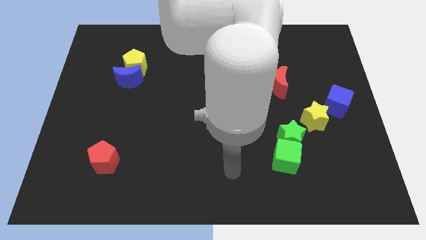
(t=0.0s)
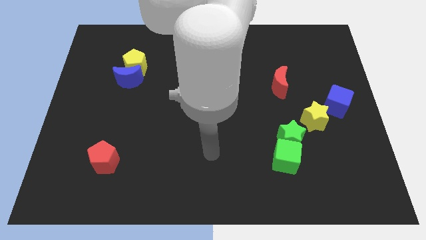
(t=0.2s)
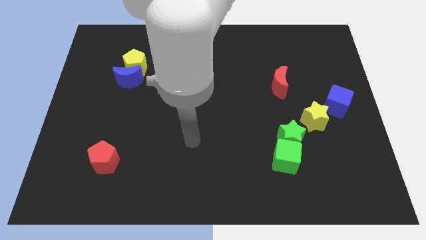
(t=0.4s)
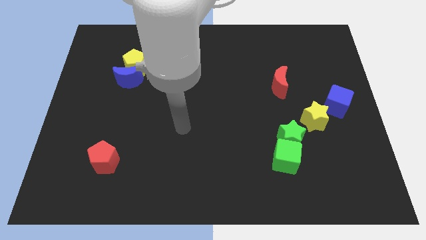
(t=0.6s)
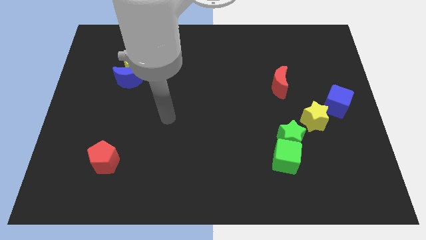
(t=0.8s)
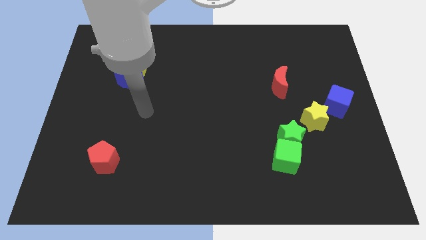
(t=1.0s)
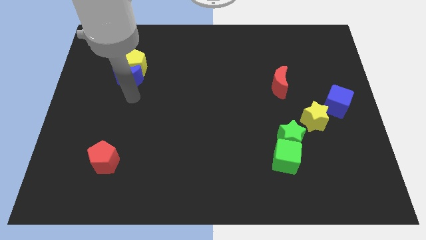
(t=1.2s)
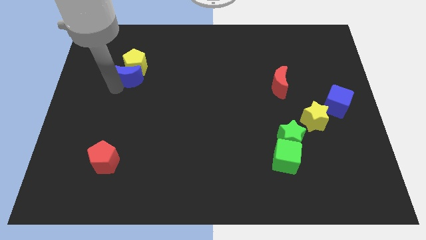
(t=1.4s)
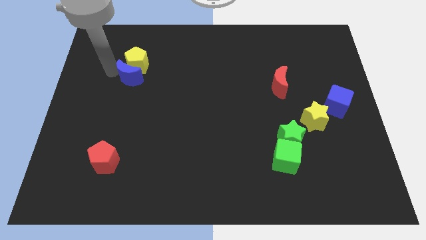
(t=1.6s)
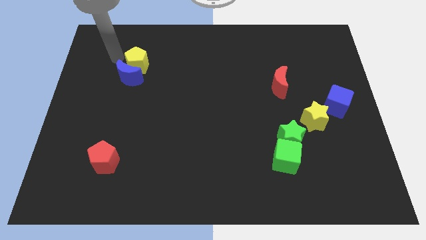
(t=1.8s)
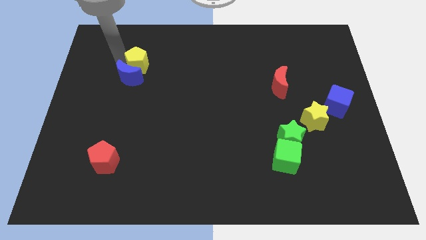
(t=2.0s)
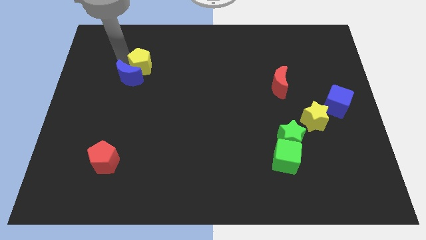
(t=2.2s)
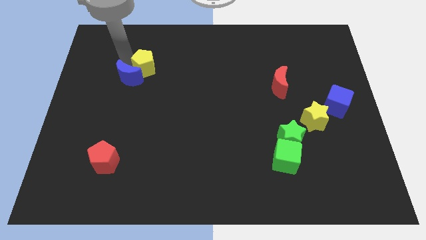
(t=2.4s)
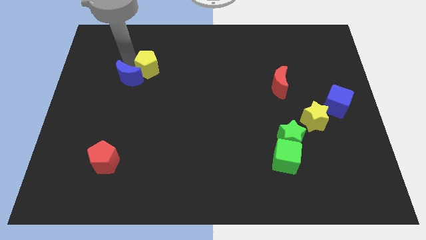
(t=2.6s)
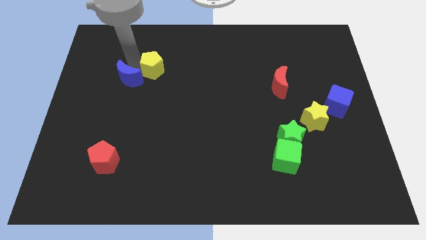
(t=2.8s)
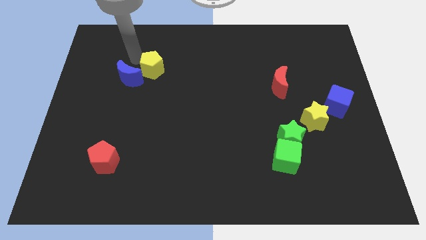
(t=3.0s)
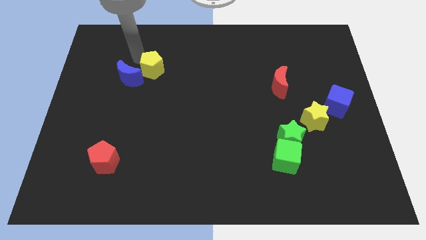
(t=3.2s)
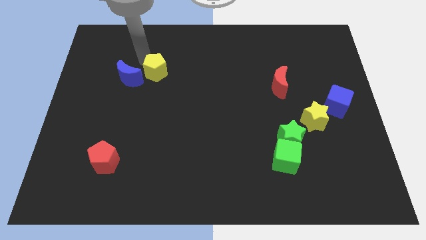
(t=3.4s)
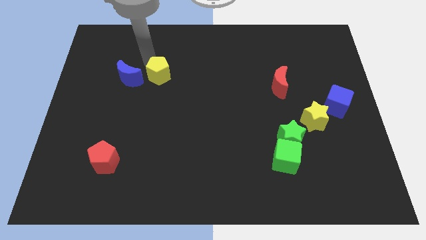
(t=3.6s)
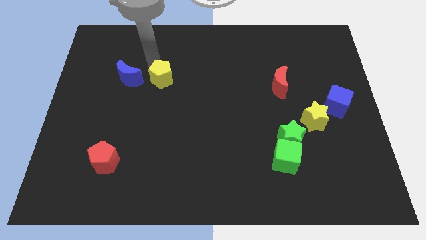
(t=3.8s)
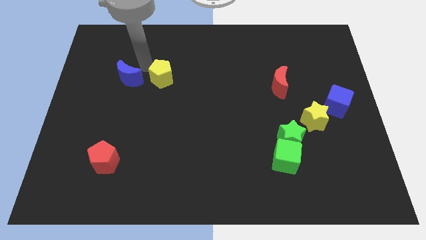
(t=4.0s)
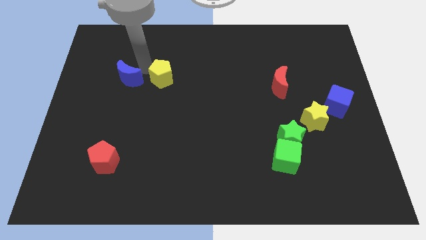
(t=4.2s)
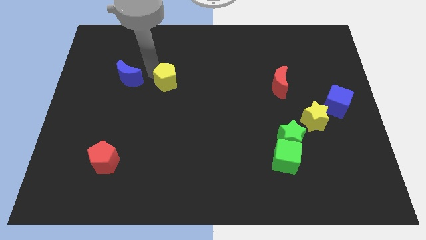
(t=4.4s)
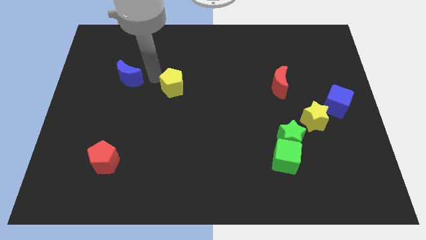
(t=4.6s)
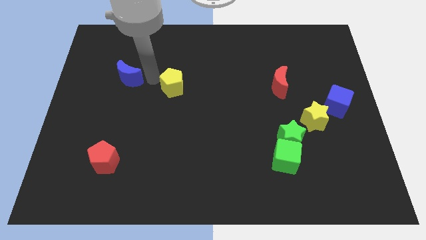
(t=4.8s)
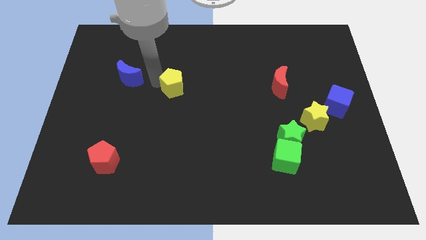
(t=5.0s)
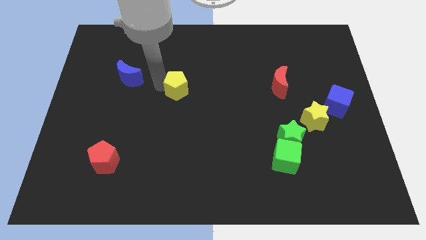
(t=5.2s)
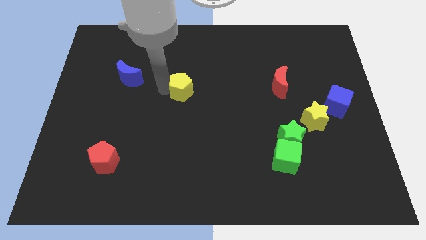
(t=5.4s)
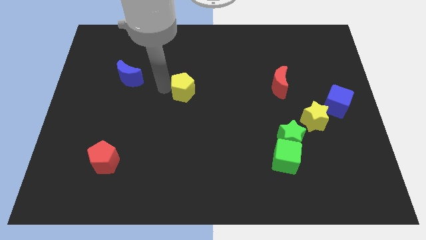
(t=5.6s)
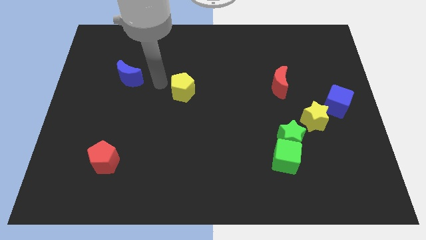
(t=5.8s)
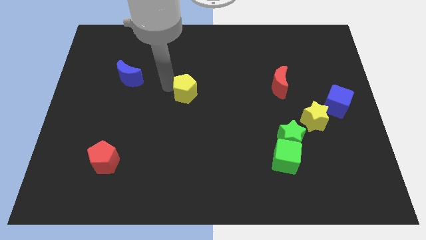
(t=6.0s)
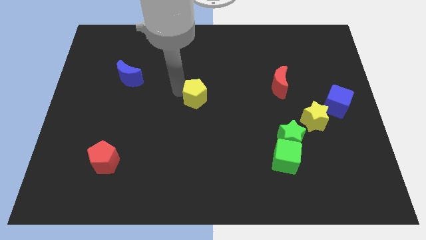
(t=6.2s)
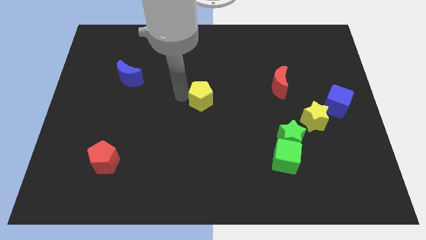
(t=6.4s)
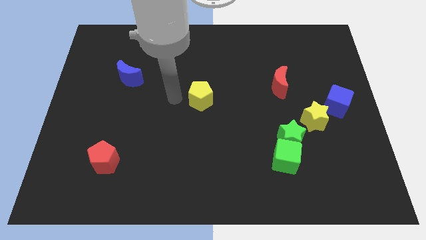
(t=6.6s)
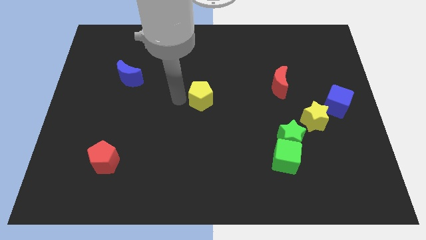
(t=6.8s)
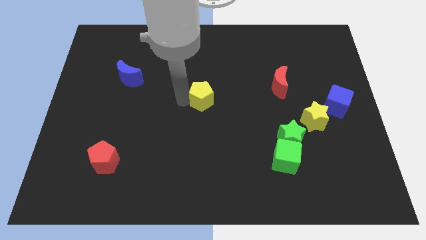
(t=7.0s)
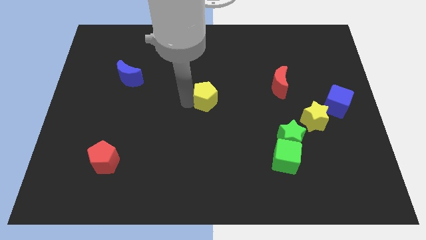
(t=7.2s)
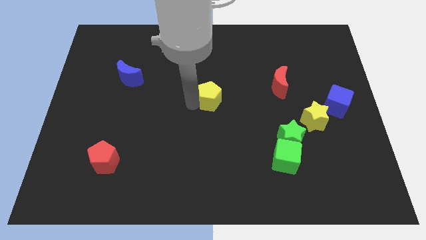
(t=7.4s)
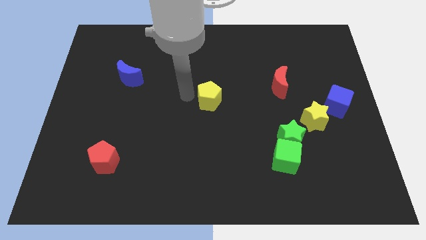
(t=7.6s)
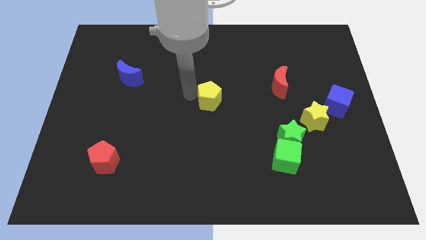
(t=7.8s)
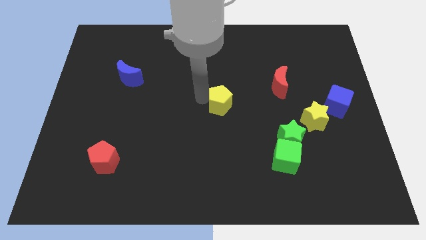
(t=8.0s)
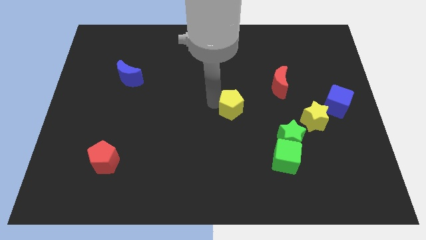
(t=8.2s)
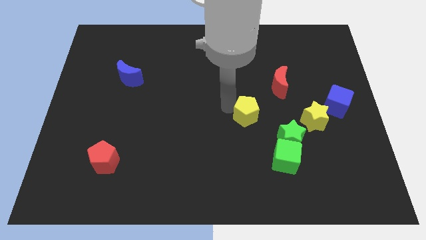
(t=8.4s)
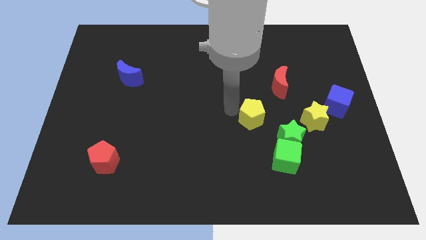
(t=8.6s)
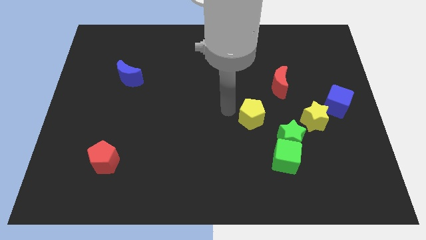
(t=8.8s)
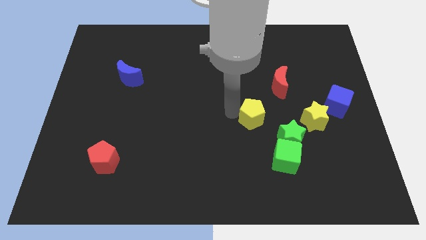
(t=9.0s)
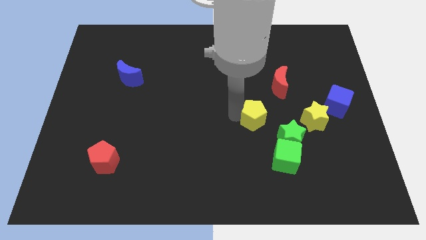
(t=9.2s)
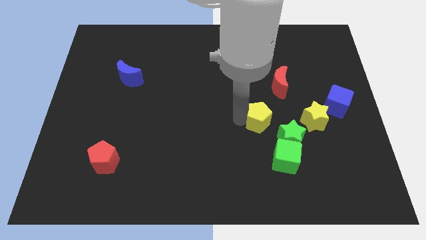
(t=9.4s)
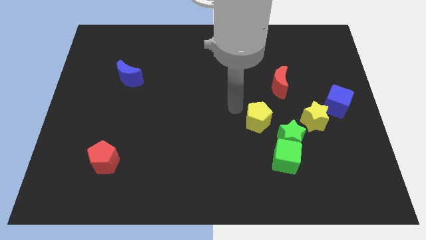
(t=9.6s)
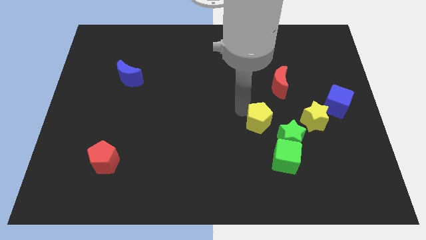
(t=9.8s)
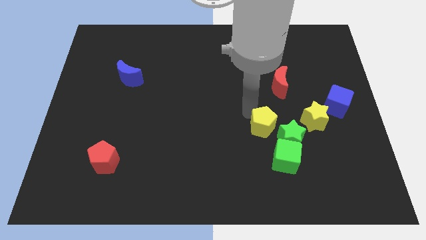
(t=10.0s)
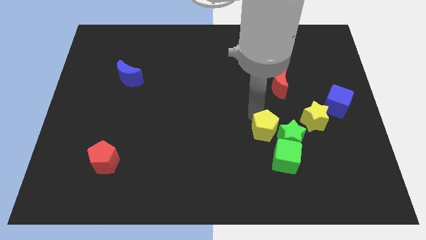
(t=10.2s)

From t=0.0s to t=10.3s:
slide the yellow pentagon next to the green star

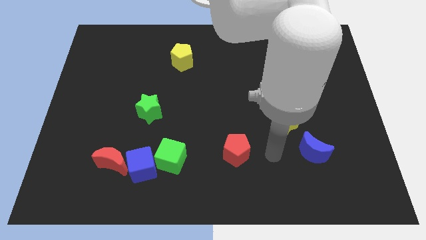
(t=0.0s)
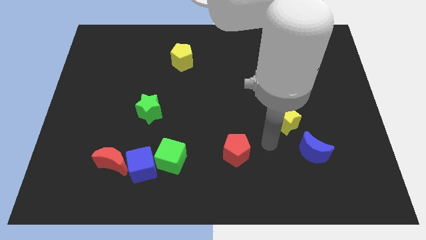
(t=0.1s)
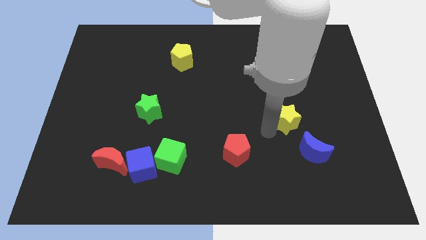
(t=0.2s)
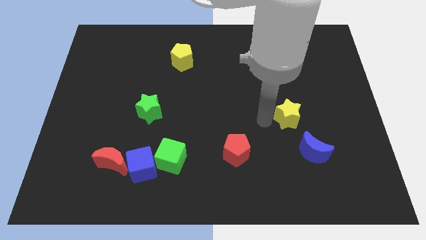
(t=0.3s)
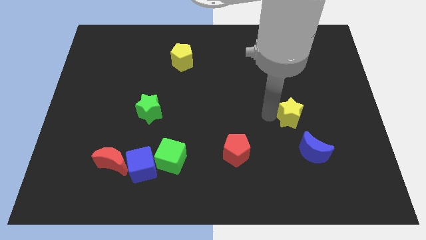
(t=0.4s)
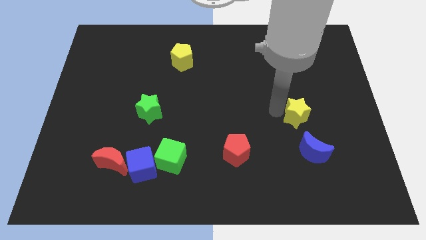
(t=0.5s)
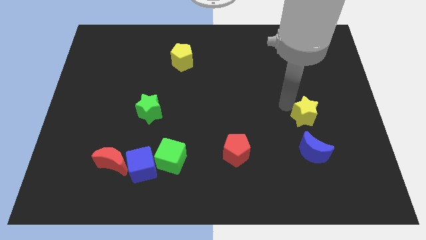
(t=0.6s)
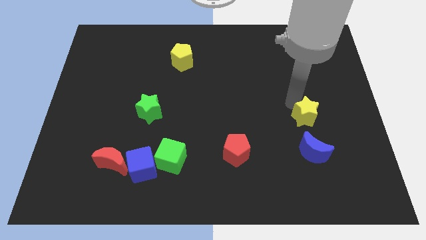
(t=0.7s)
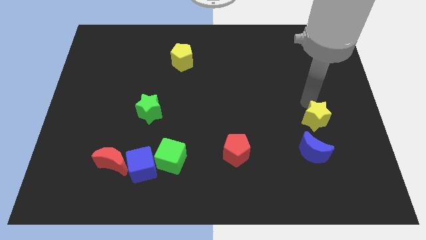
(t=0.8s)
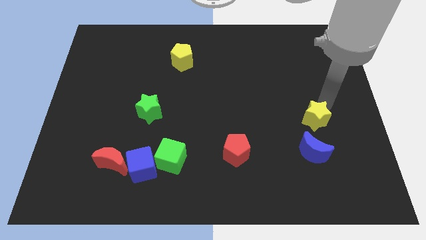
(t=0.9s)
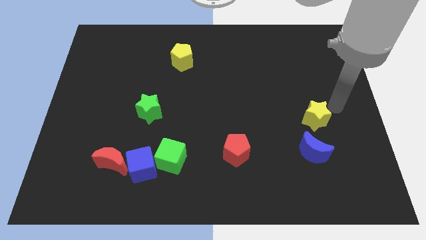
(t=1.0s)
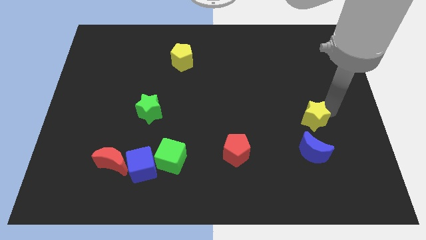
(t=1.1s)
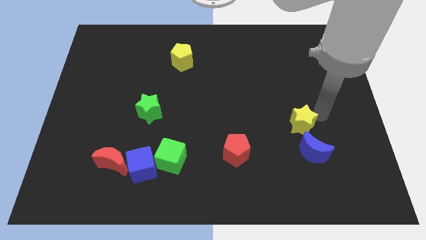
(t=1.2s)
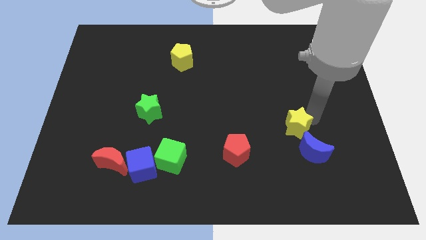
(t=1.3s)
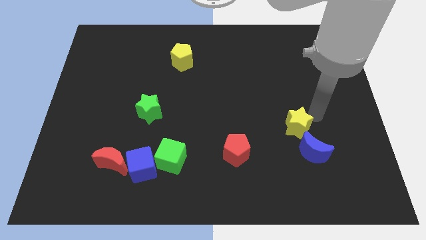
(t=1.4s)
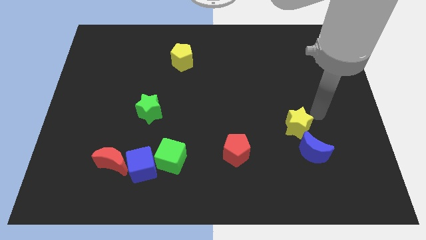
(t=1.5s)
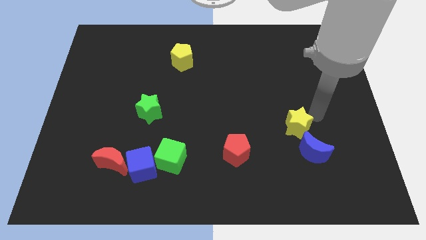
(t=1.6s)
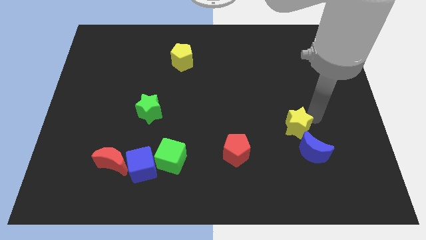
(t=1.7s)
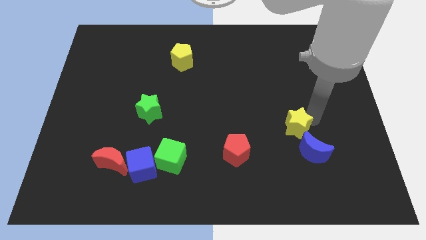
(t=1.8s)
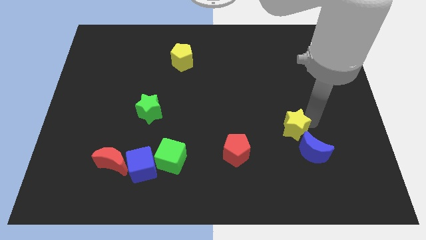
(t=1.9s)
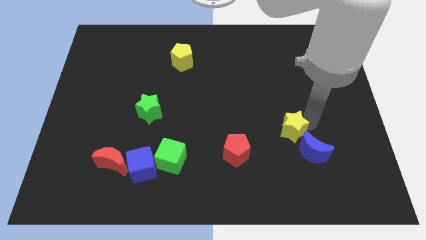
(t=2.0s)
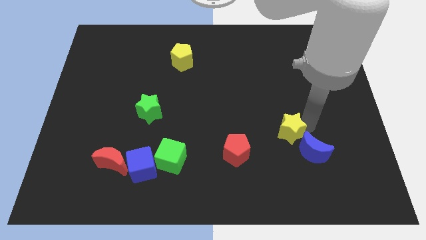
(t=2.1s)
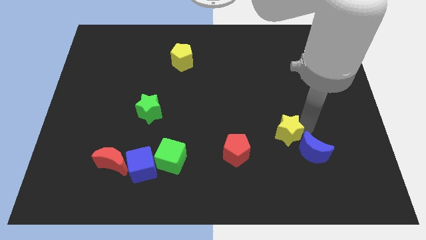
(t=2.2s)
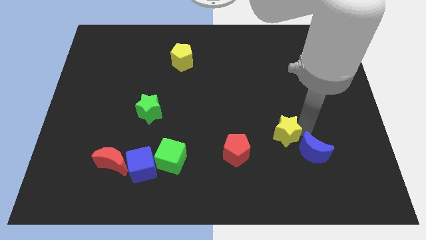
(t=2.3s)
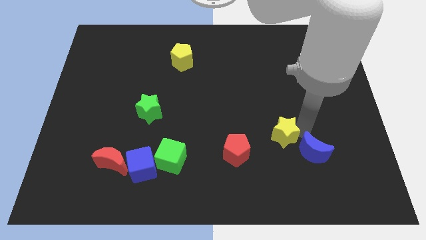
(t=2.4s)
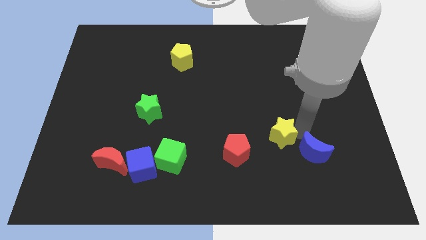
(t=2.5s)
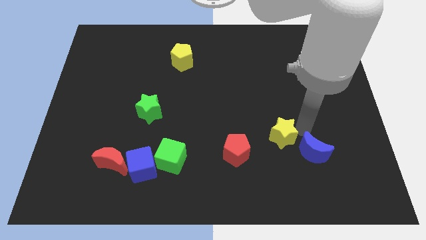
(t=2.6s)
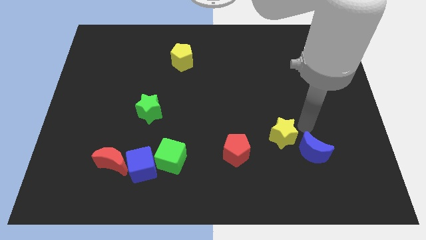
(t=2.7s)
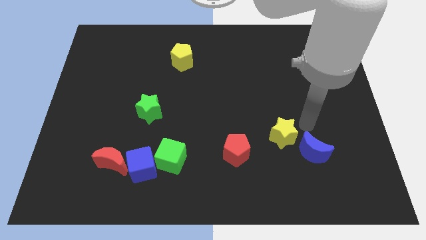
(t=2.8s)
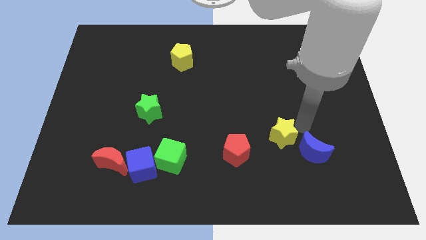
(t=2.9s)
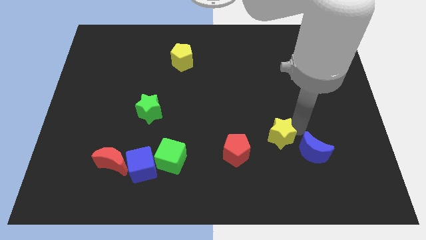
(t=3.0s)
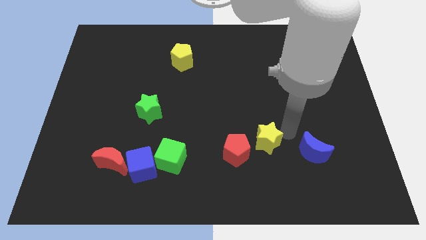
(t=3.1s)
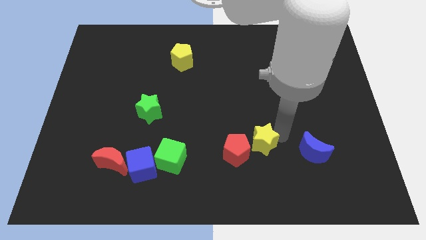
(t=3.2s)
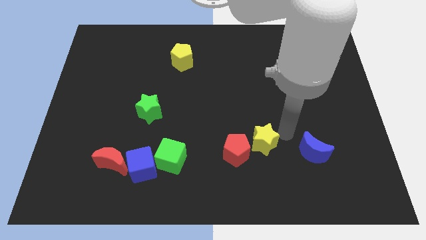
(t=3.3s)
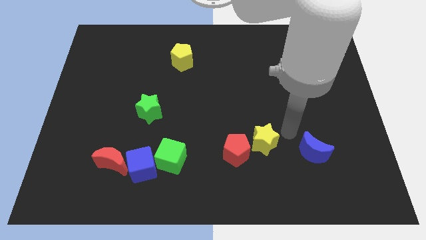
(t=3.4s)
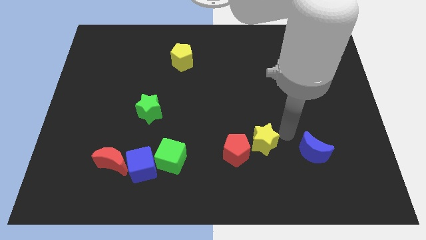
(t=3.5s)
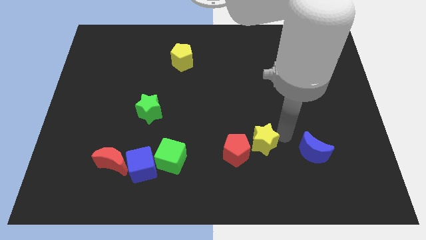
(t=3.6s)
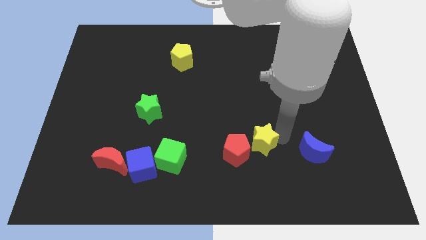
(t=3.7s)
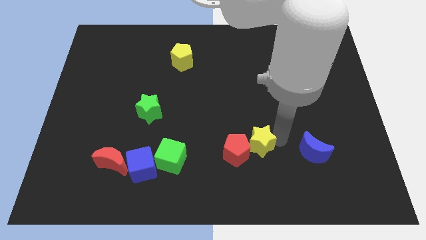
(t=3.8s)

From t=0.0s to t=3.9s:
push the yellow star to the red pentagon
